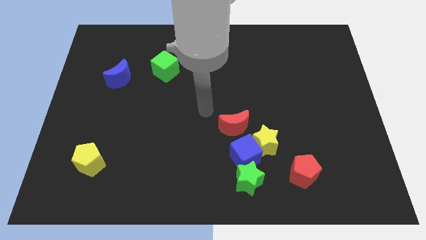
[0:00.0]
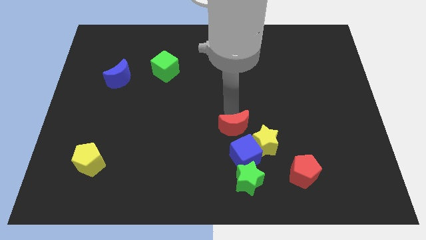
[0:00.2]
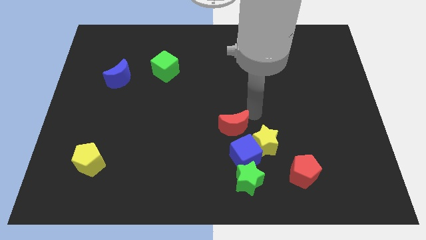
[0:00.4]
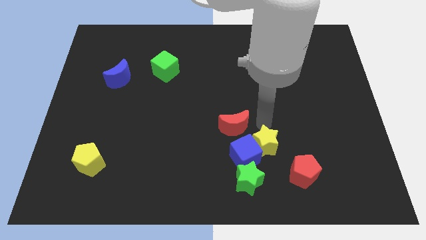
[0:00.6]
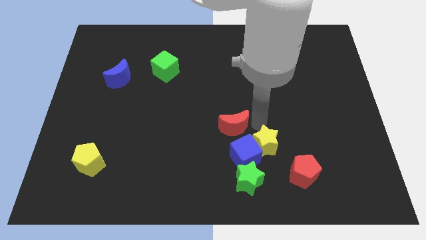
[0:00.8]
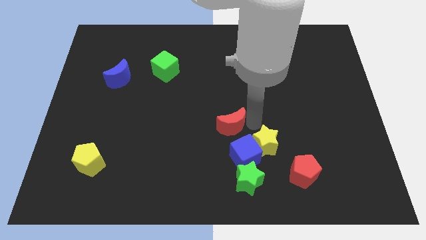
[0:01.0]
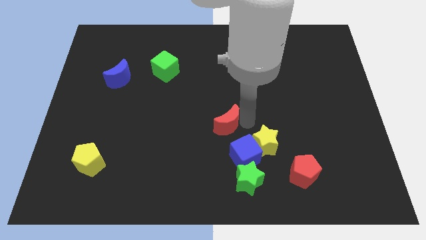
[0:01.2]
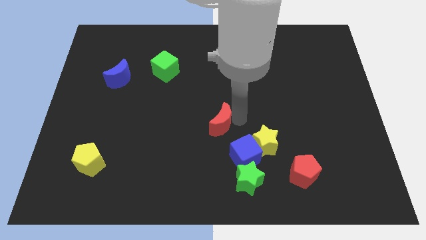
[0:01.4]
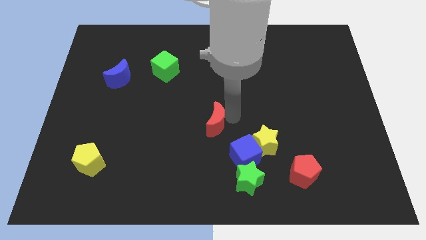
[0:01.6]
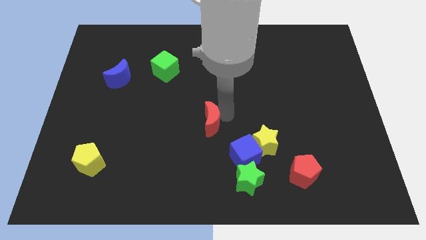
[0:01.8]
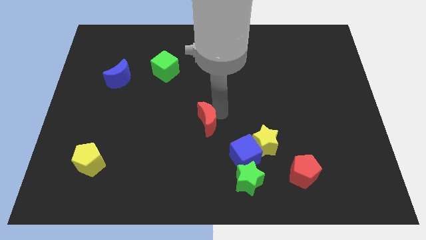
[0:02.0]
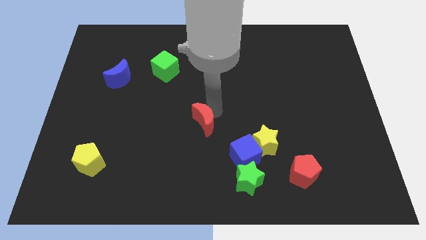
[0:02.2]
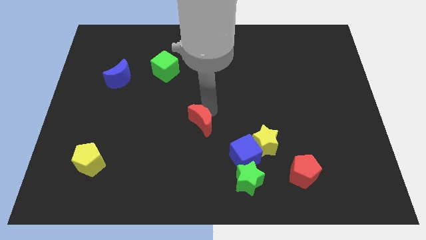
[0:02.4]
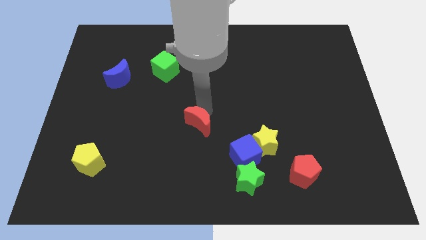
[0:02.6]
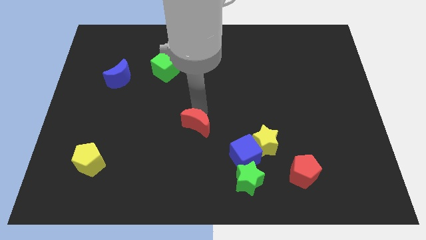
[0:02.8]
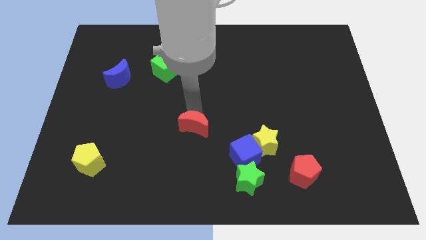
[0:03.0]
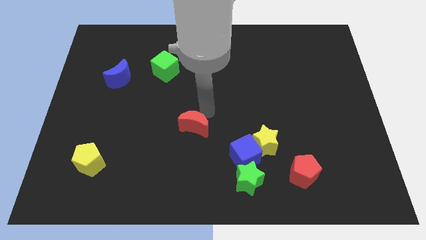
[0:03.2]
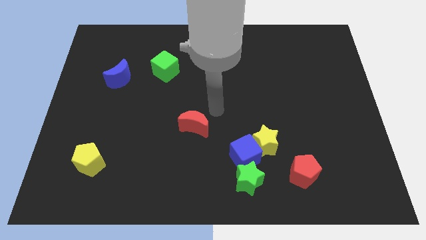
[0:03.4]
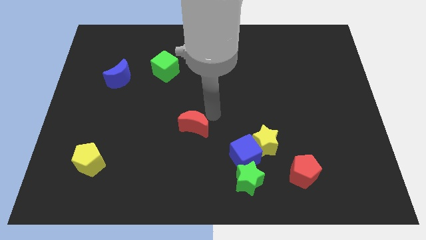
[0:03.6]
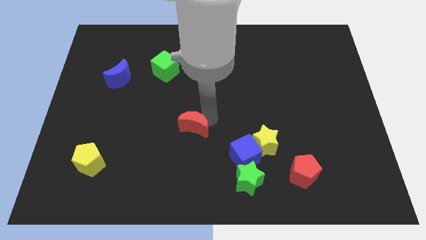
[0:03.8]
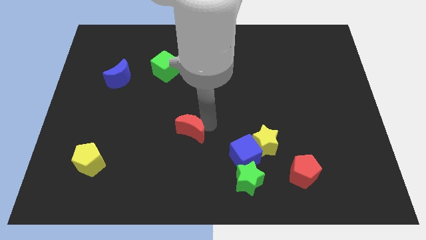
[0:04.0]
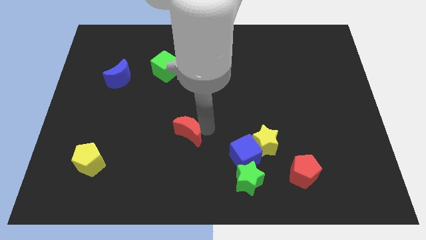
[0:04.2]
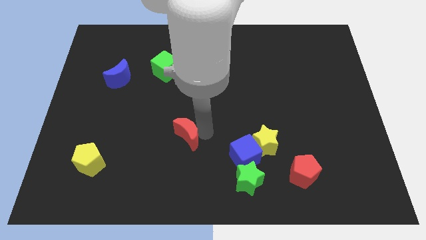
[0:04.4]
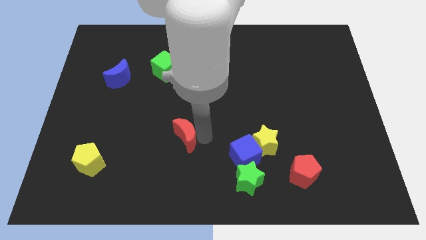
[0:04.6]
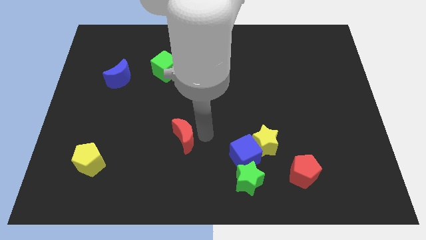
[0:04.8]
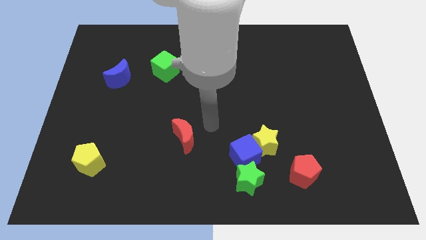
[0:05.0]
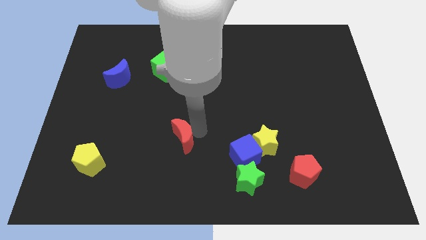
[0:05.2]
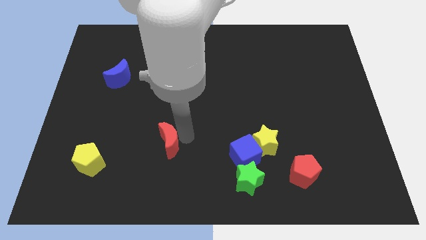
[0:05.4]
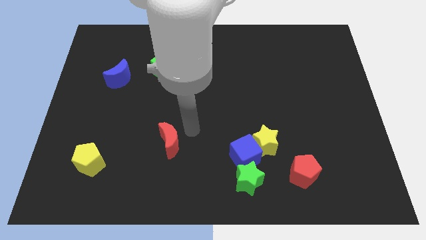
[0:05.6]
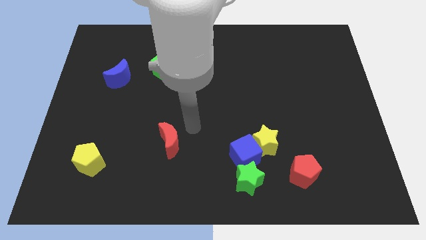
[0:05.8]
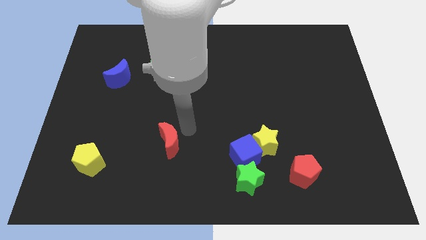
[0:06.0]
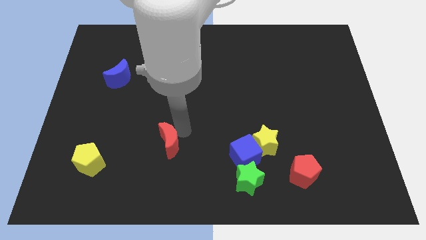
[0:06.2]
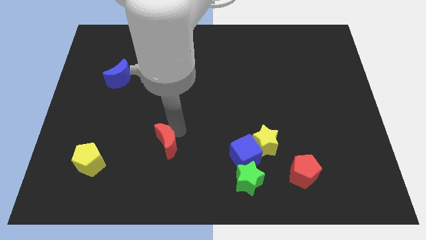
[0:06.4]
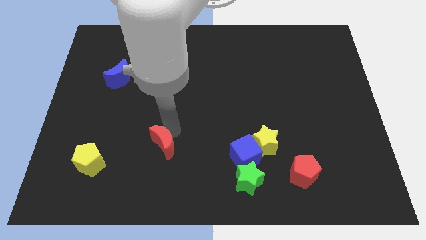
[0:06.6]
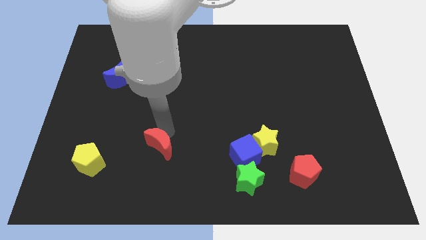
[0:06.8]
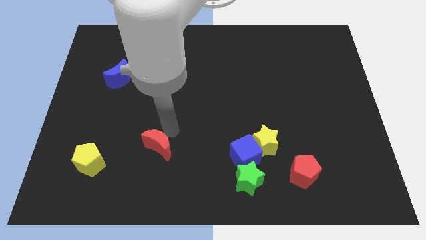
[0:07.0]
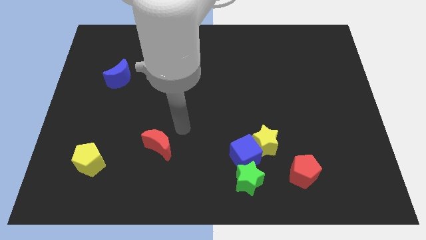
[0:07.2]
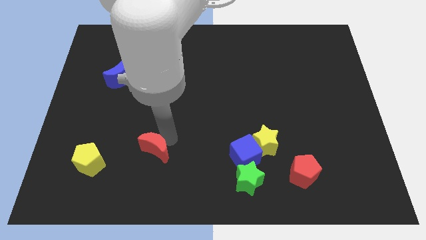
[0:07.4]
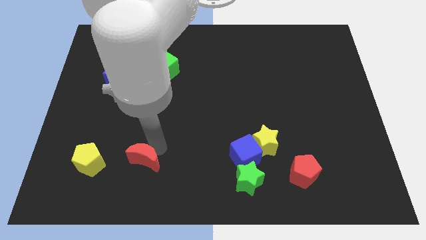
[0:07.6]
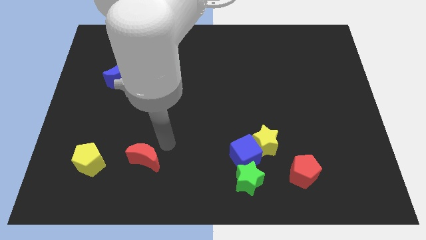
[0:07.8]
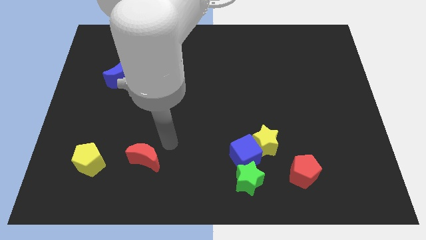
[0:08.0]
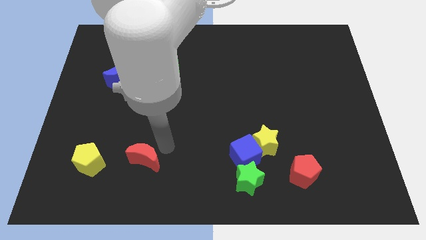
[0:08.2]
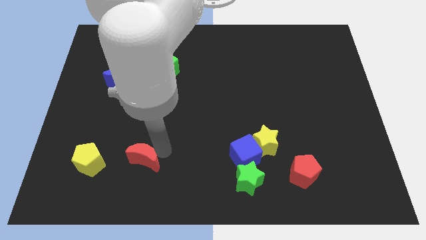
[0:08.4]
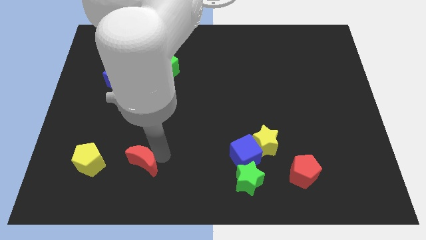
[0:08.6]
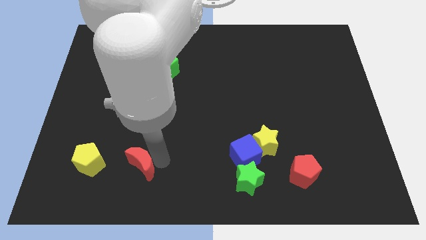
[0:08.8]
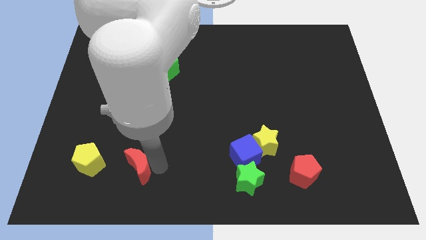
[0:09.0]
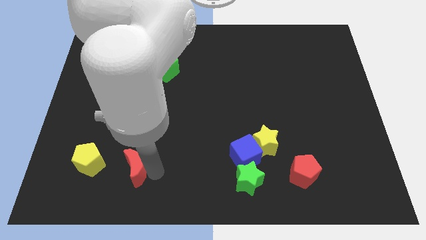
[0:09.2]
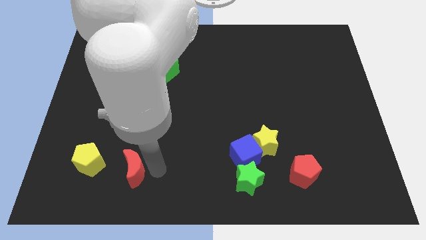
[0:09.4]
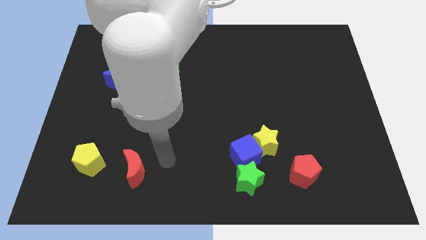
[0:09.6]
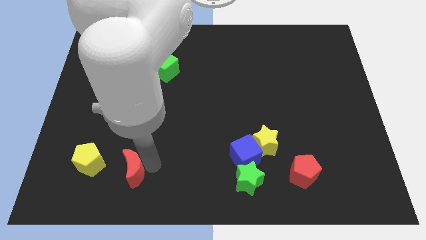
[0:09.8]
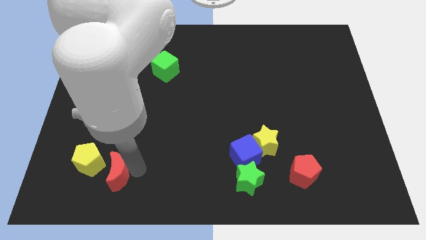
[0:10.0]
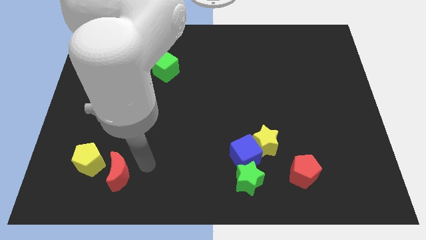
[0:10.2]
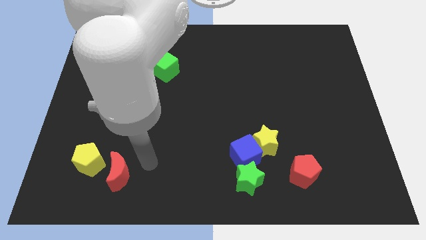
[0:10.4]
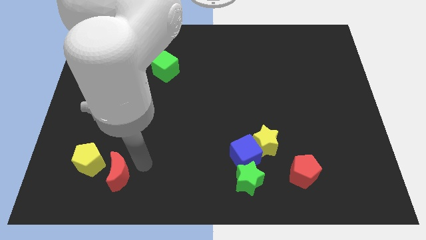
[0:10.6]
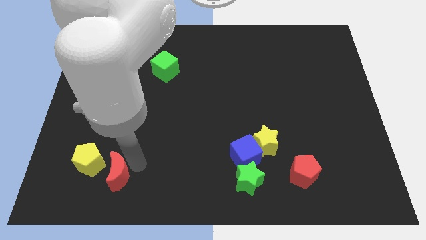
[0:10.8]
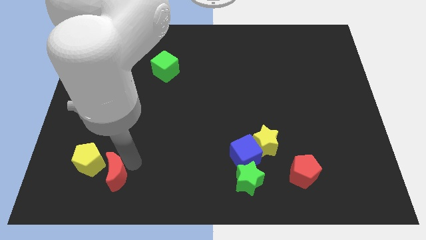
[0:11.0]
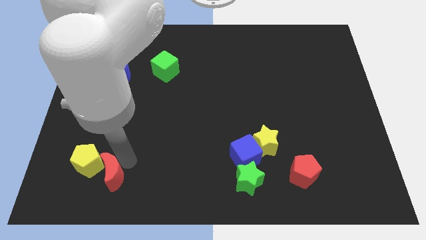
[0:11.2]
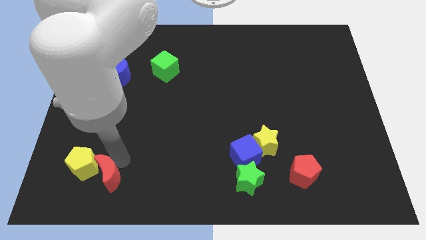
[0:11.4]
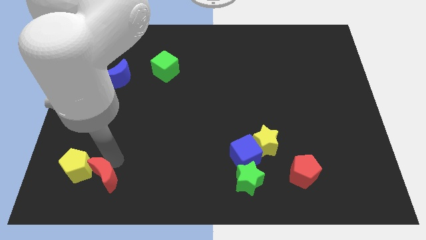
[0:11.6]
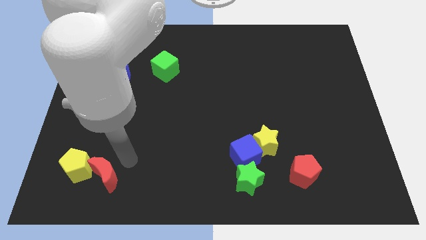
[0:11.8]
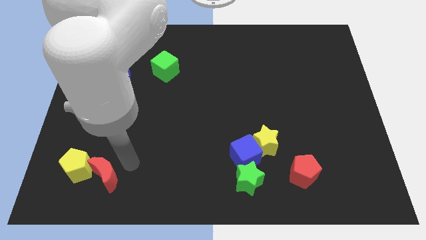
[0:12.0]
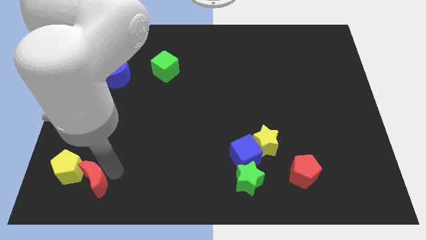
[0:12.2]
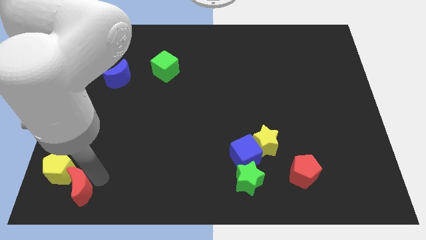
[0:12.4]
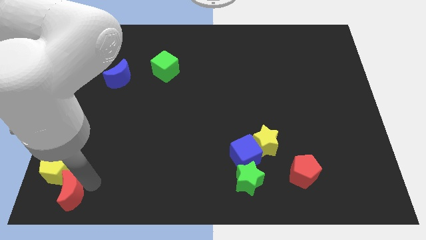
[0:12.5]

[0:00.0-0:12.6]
slide the red moon to the bottom left

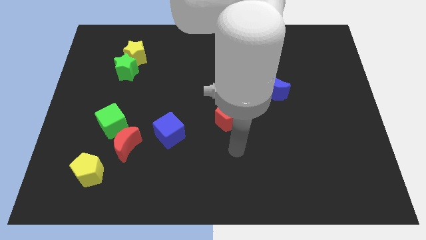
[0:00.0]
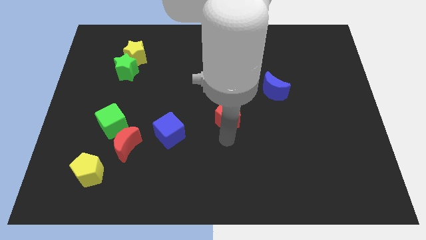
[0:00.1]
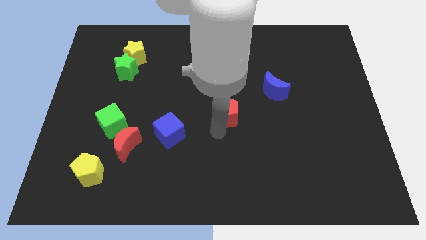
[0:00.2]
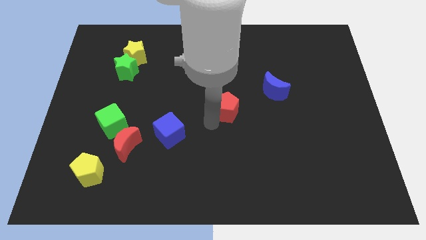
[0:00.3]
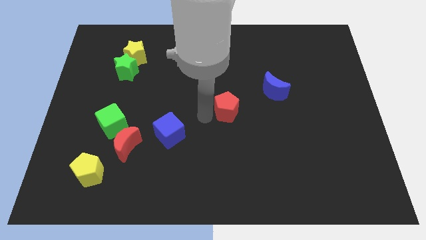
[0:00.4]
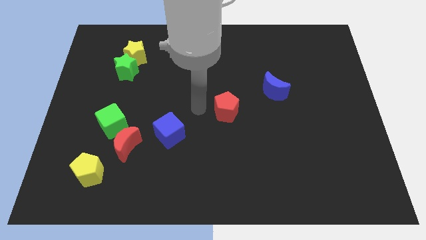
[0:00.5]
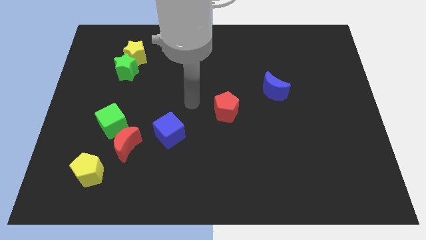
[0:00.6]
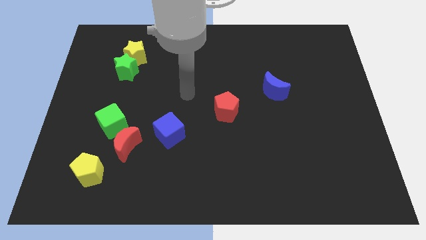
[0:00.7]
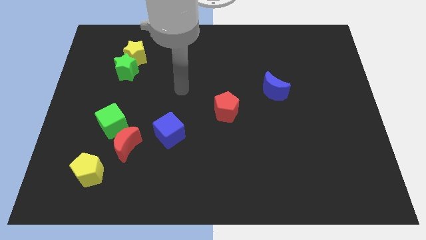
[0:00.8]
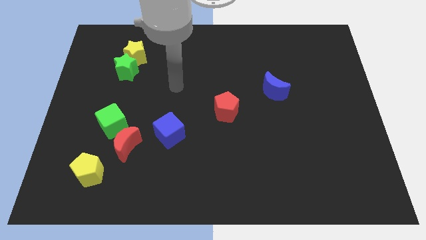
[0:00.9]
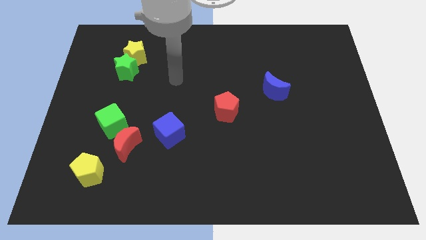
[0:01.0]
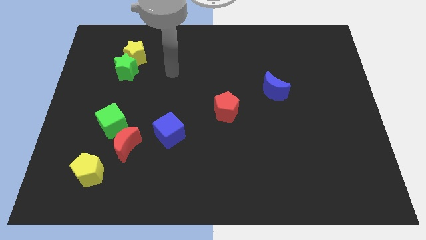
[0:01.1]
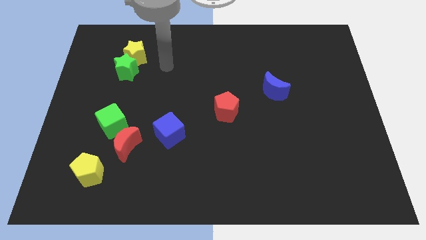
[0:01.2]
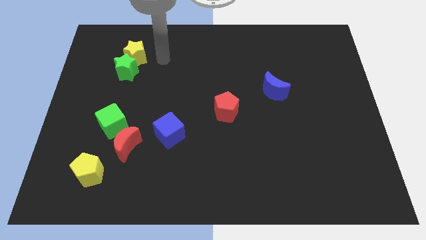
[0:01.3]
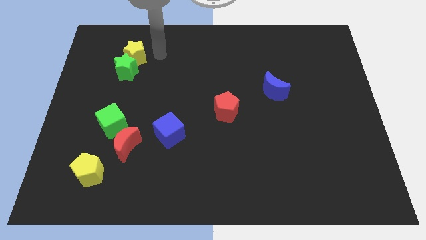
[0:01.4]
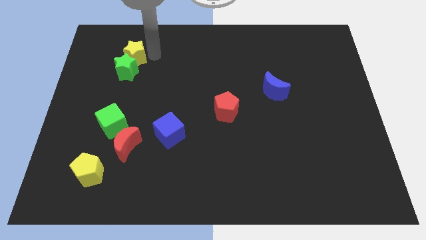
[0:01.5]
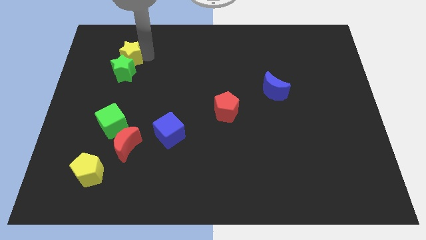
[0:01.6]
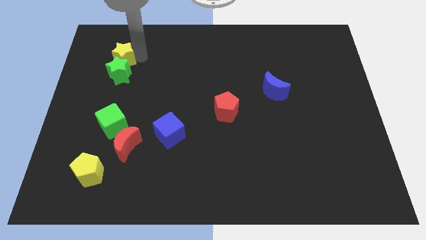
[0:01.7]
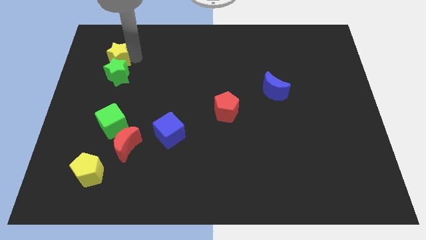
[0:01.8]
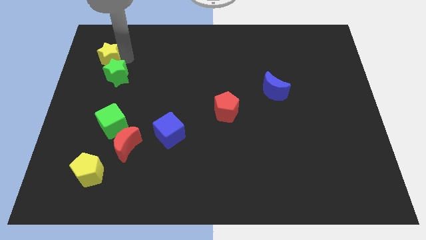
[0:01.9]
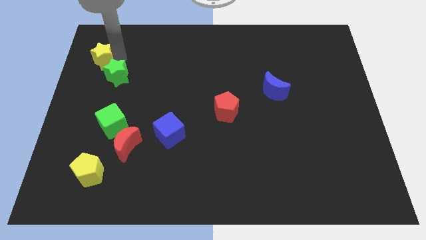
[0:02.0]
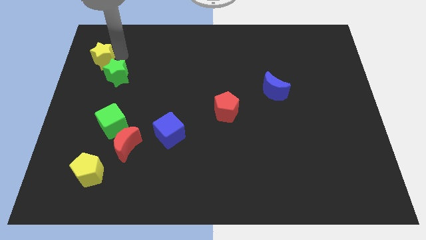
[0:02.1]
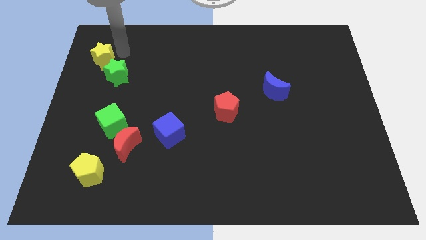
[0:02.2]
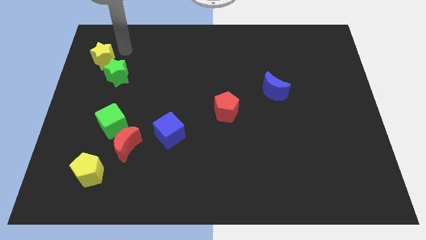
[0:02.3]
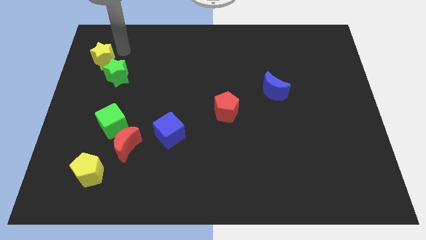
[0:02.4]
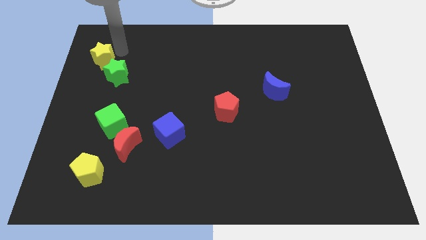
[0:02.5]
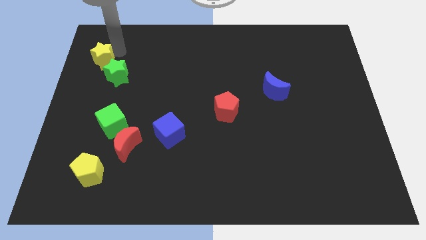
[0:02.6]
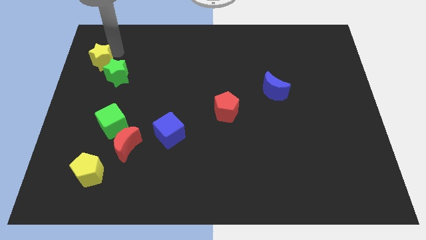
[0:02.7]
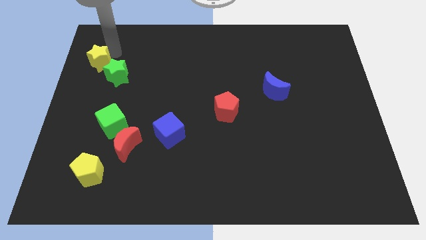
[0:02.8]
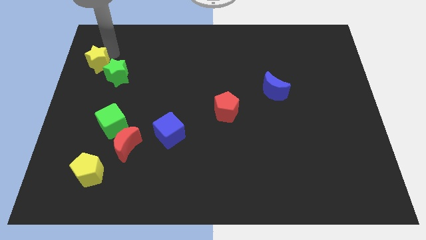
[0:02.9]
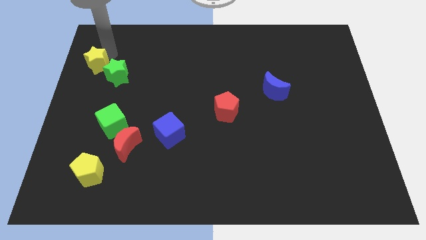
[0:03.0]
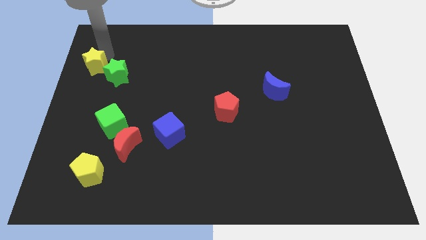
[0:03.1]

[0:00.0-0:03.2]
move the yellow star to the left side of the board
